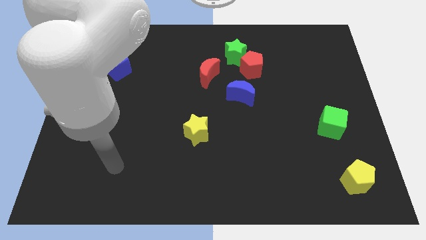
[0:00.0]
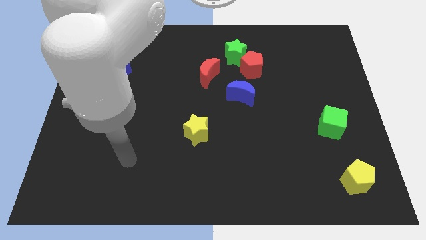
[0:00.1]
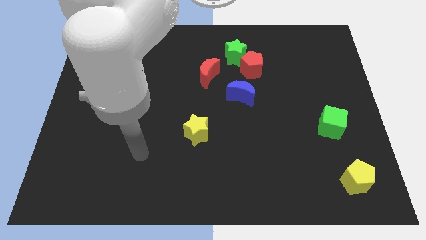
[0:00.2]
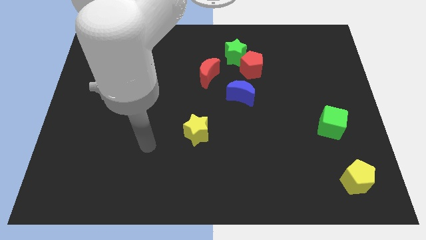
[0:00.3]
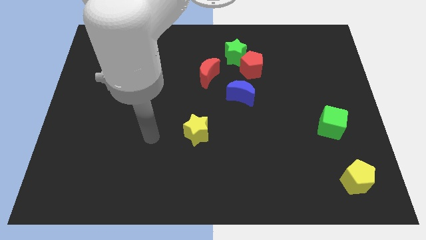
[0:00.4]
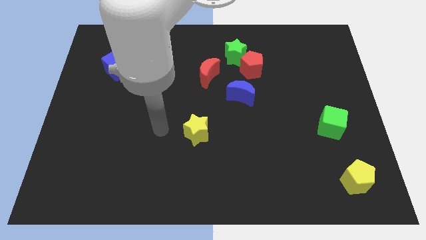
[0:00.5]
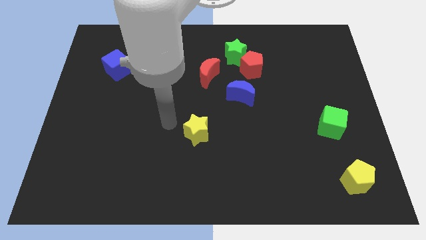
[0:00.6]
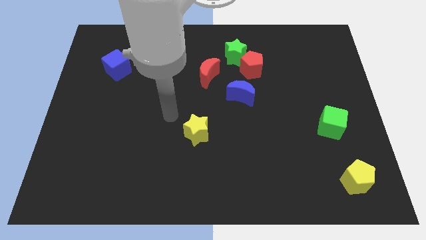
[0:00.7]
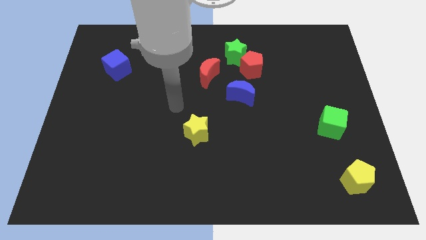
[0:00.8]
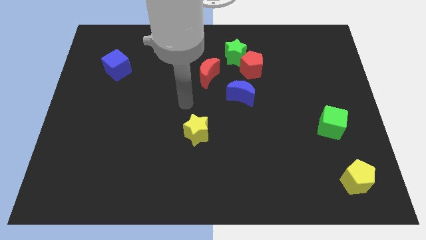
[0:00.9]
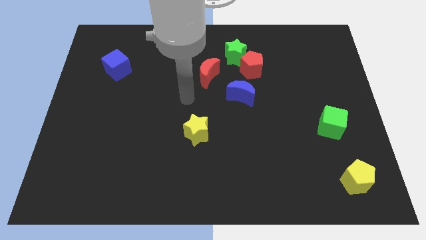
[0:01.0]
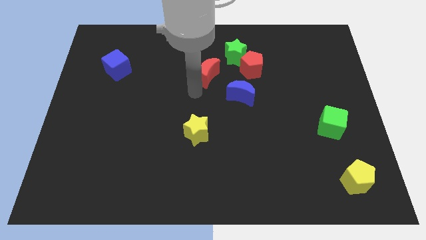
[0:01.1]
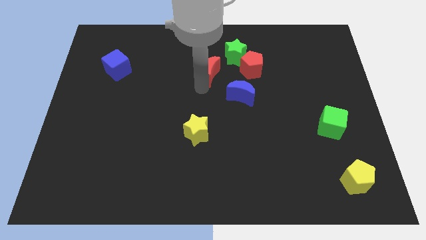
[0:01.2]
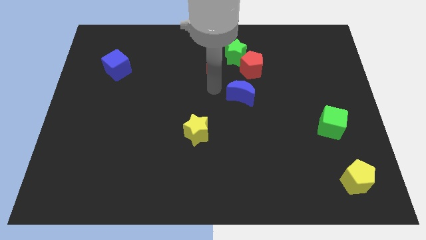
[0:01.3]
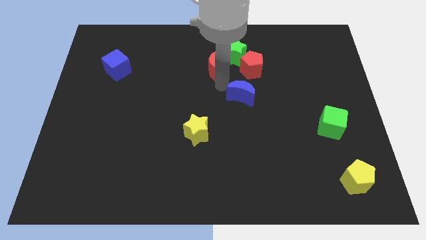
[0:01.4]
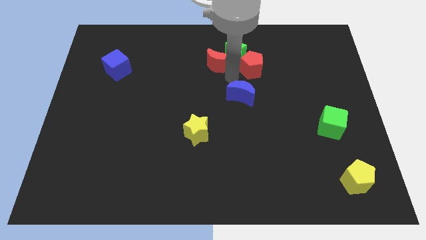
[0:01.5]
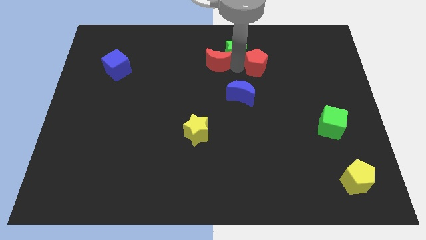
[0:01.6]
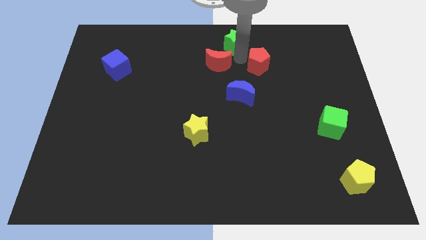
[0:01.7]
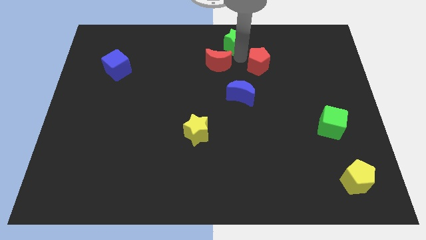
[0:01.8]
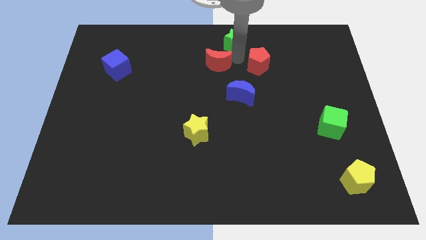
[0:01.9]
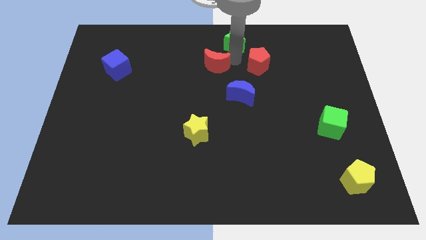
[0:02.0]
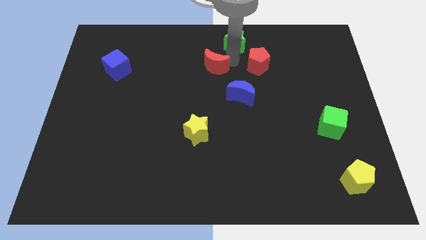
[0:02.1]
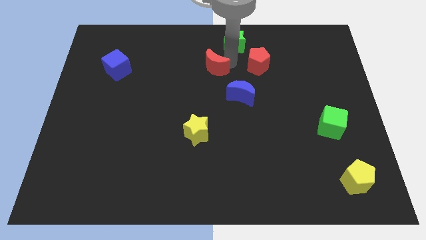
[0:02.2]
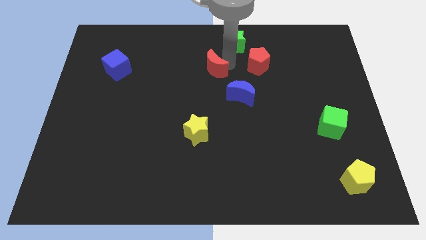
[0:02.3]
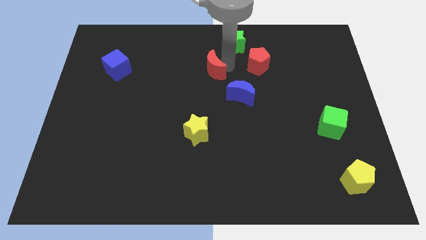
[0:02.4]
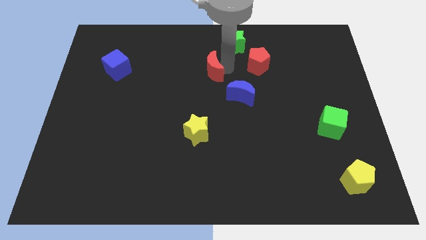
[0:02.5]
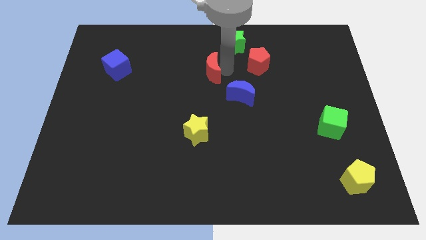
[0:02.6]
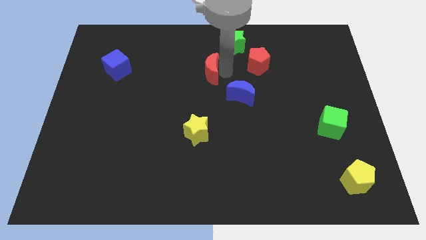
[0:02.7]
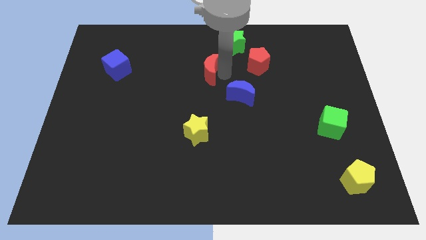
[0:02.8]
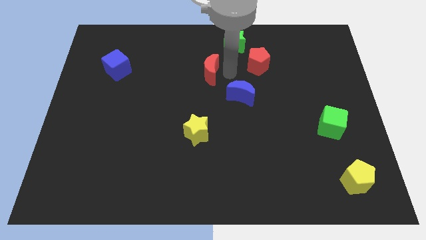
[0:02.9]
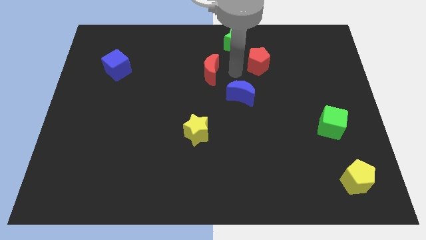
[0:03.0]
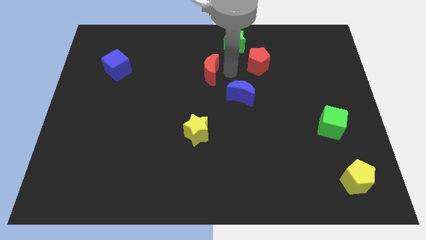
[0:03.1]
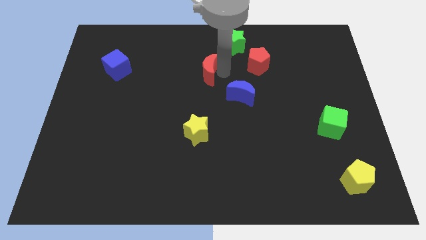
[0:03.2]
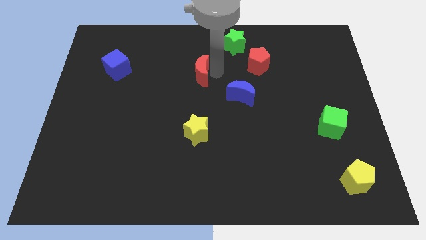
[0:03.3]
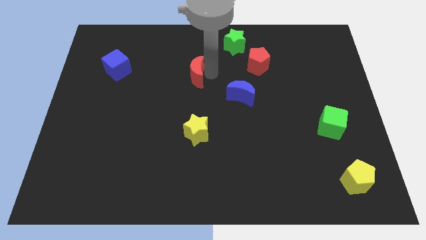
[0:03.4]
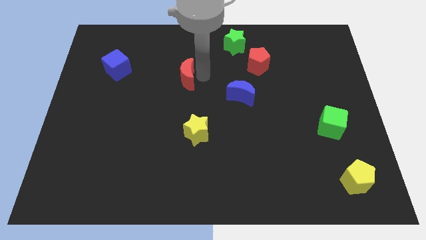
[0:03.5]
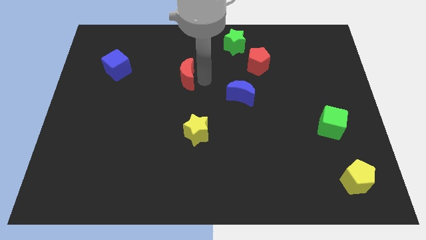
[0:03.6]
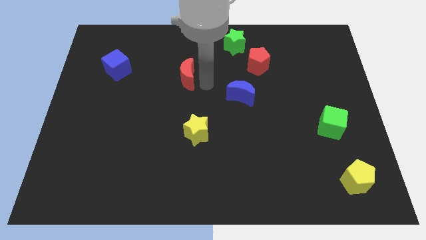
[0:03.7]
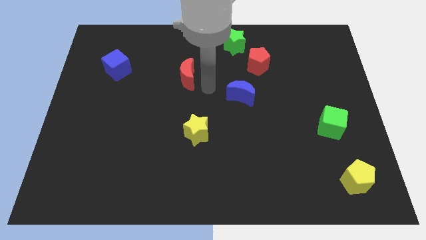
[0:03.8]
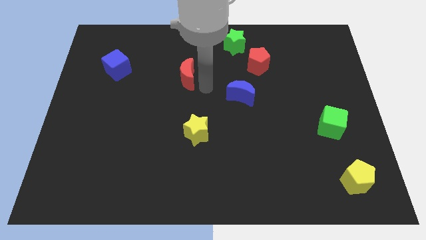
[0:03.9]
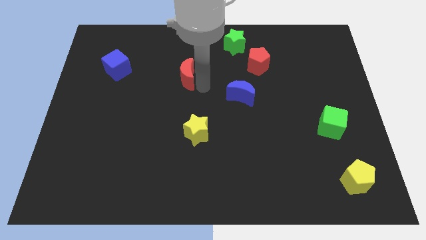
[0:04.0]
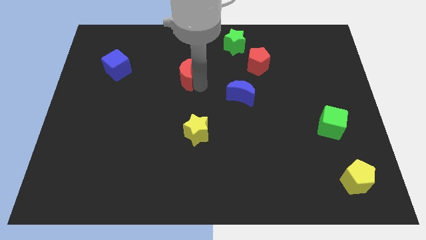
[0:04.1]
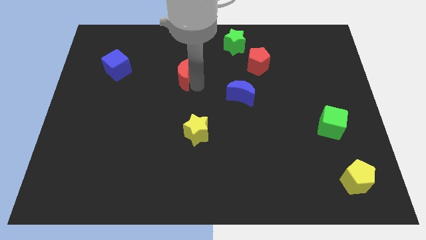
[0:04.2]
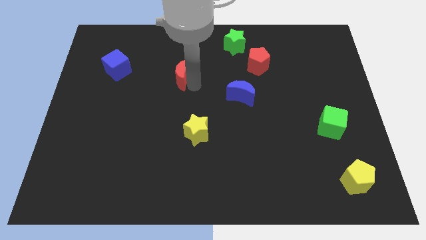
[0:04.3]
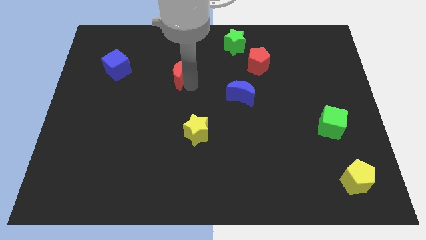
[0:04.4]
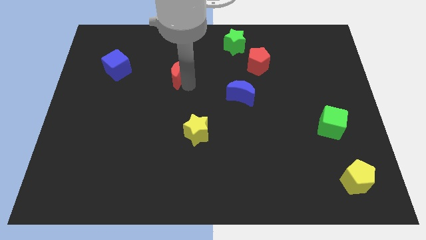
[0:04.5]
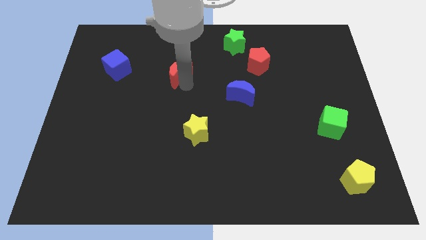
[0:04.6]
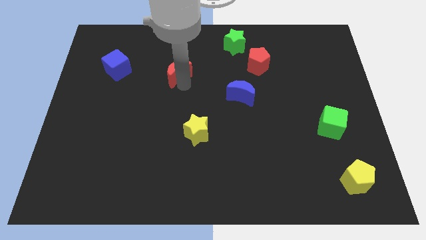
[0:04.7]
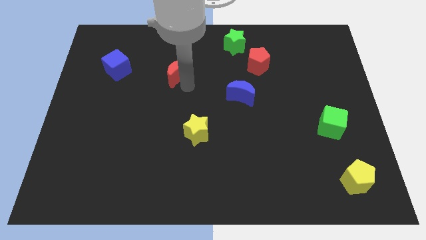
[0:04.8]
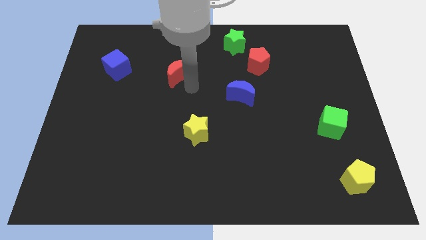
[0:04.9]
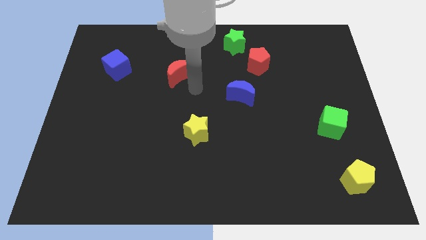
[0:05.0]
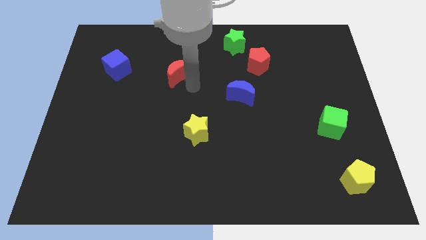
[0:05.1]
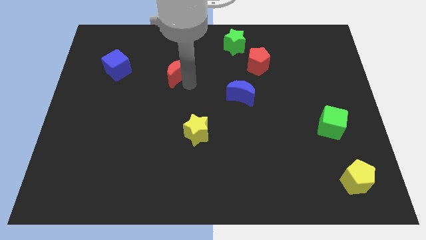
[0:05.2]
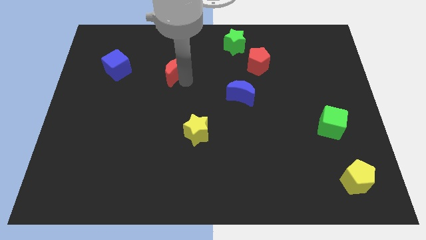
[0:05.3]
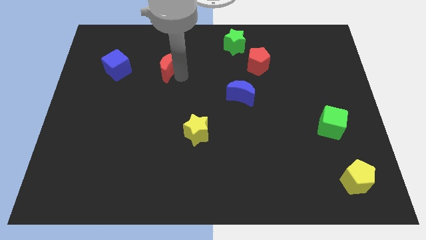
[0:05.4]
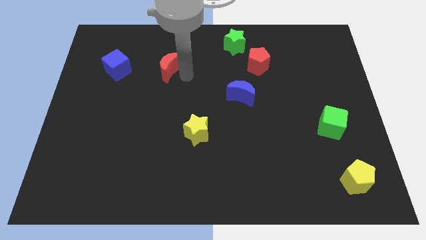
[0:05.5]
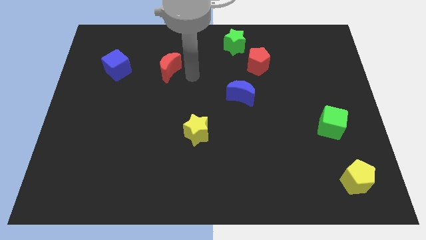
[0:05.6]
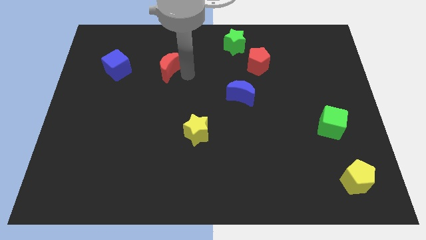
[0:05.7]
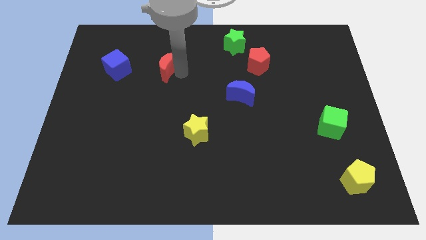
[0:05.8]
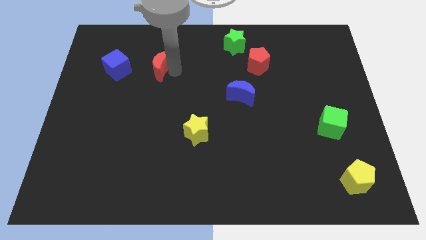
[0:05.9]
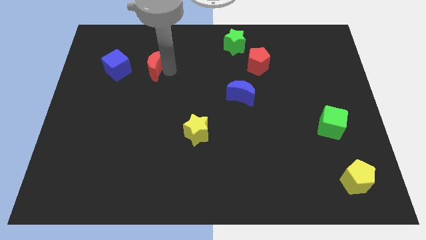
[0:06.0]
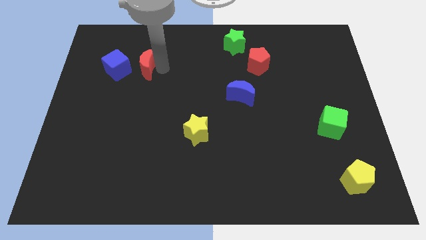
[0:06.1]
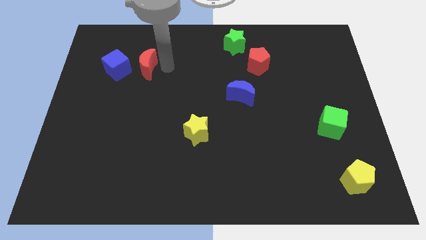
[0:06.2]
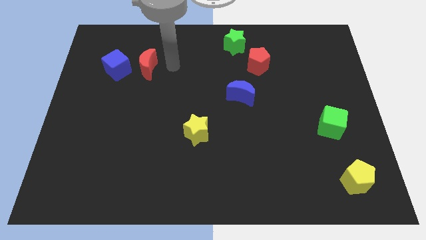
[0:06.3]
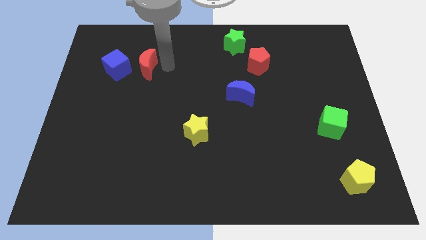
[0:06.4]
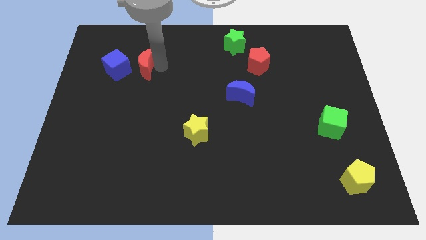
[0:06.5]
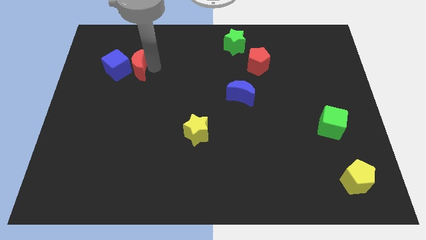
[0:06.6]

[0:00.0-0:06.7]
push the red moon to the blue cube

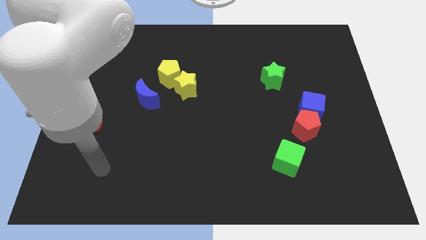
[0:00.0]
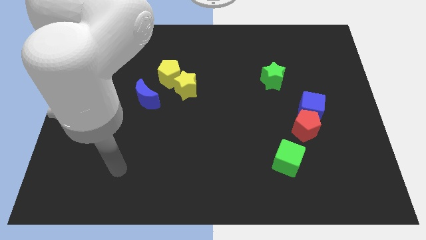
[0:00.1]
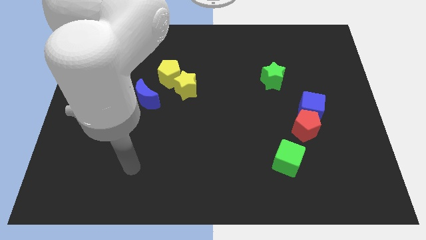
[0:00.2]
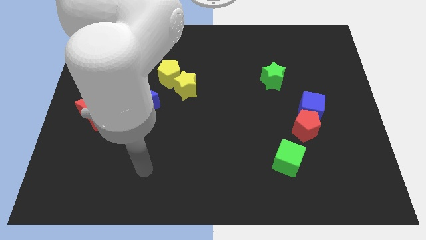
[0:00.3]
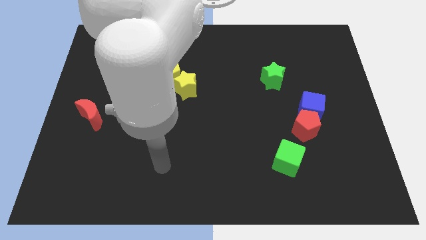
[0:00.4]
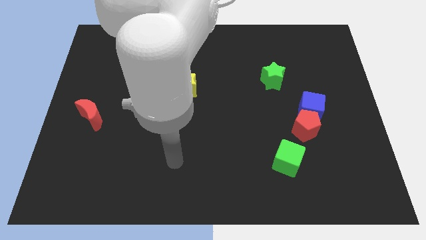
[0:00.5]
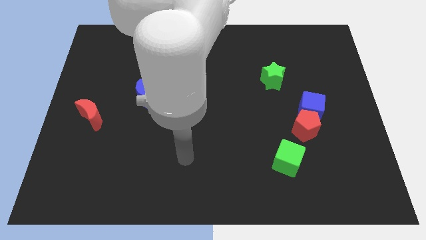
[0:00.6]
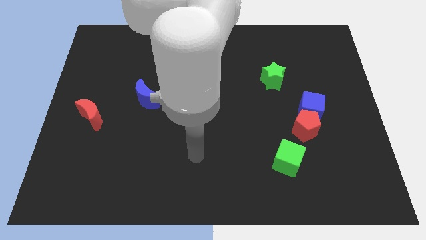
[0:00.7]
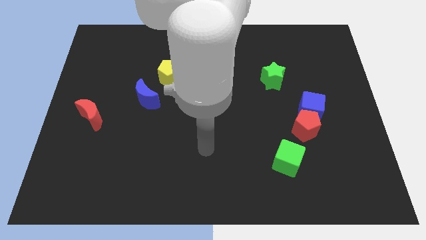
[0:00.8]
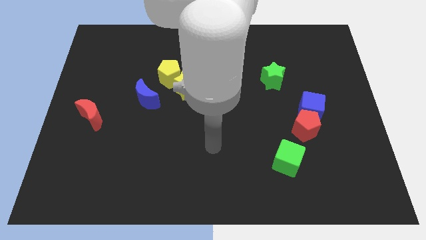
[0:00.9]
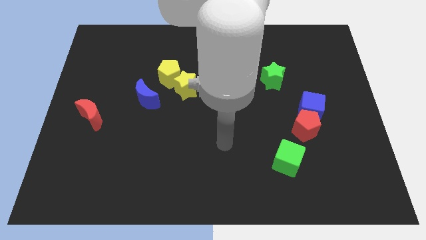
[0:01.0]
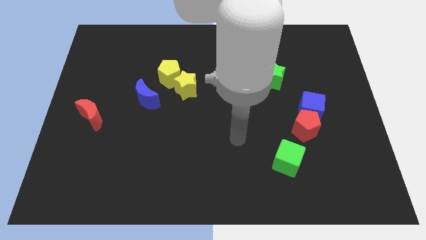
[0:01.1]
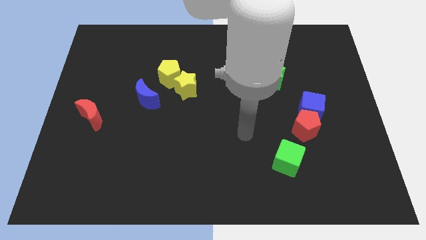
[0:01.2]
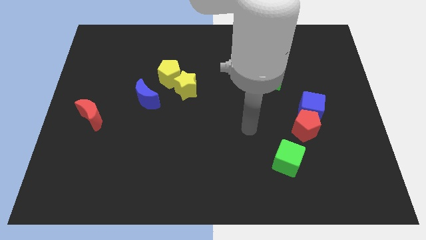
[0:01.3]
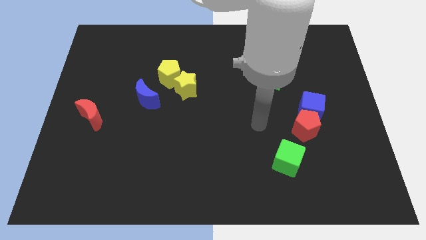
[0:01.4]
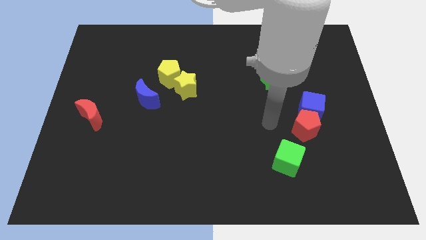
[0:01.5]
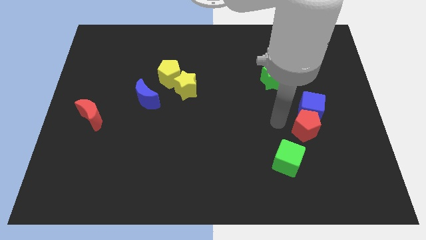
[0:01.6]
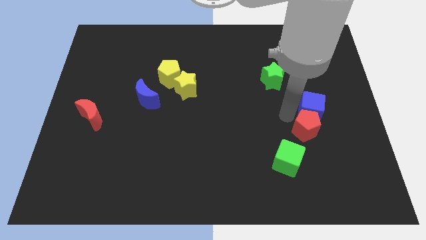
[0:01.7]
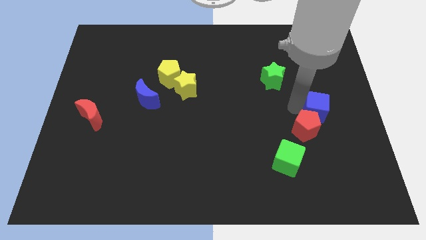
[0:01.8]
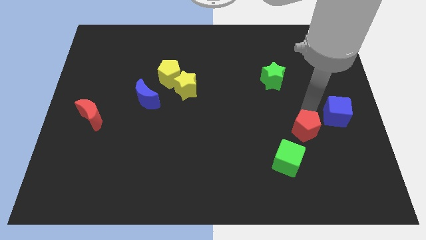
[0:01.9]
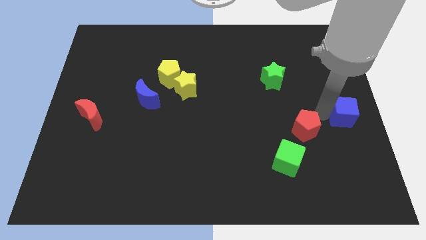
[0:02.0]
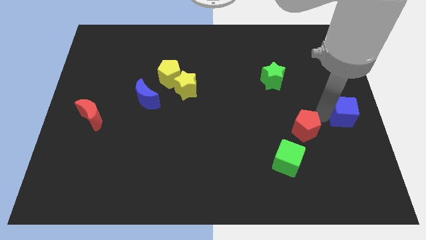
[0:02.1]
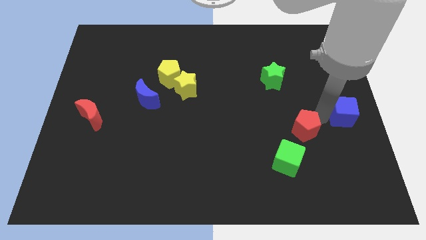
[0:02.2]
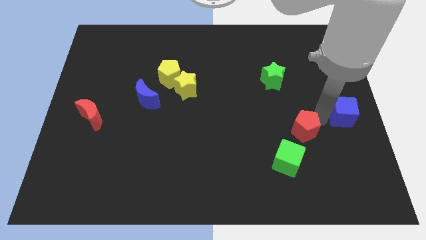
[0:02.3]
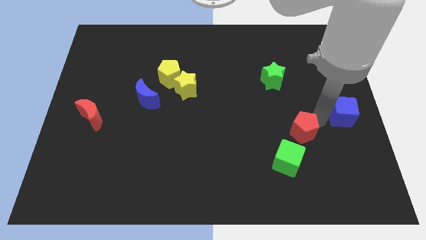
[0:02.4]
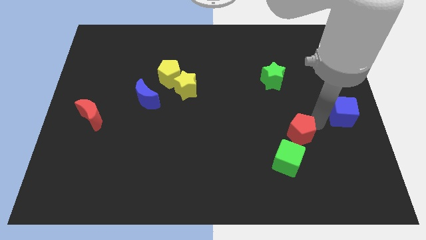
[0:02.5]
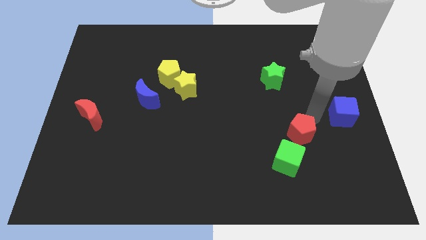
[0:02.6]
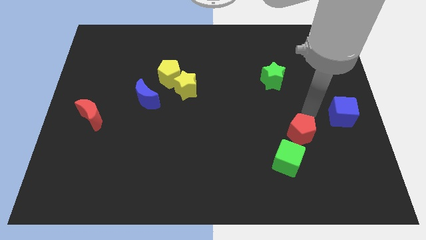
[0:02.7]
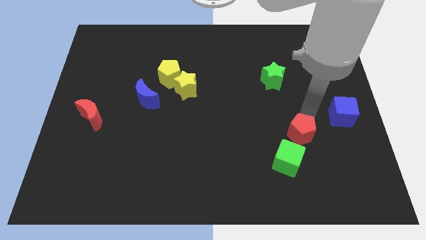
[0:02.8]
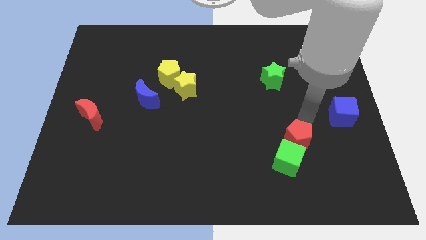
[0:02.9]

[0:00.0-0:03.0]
move the red pentagon towards the green cube
